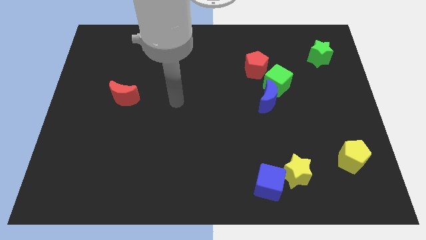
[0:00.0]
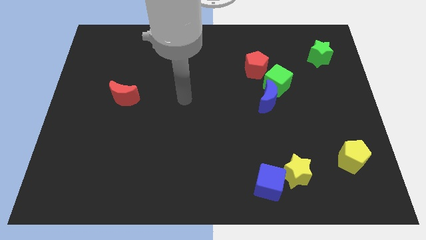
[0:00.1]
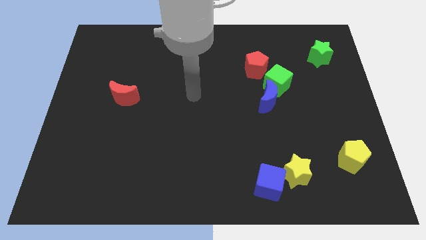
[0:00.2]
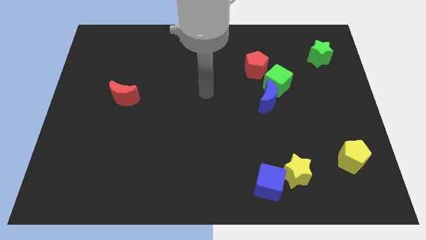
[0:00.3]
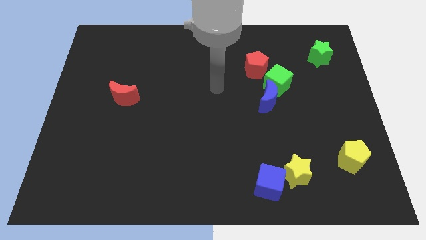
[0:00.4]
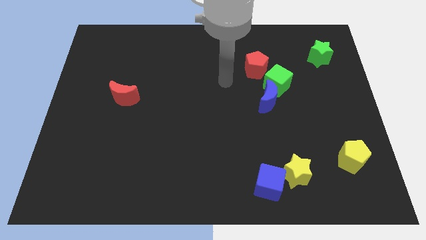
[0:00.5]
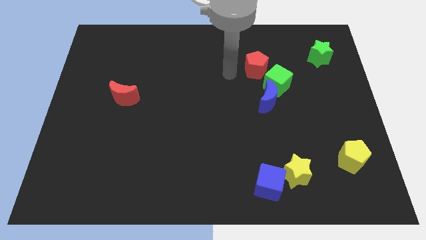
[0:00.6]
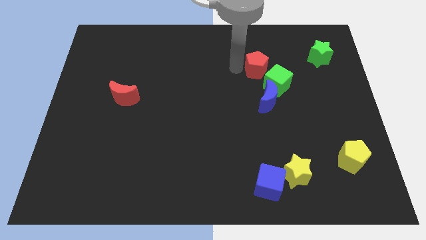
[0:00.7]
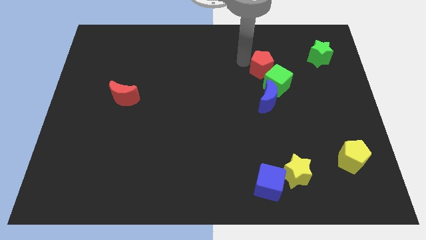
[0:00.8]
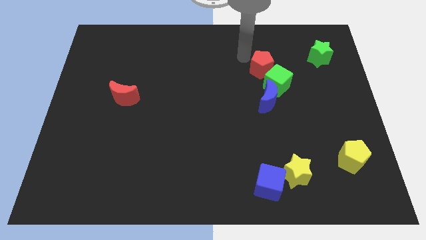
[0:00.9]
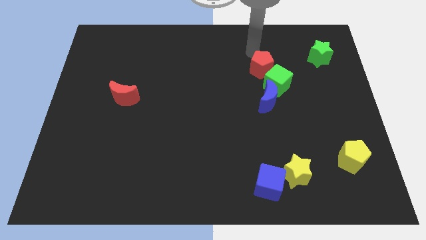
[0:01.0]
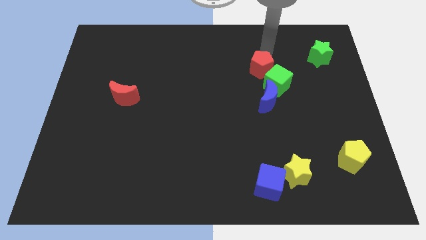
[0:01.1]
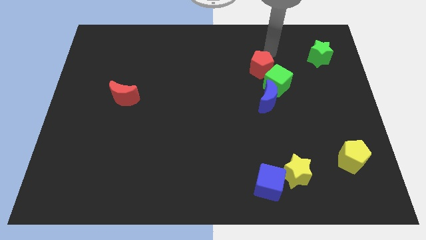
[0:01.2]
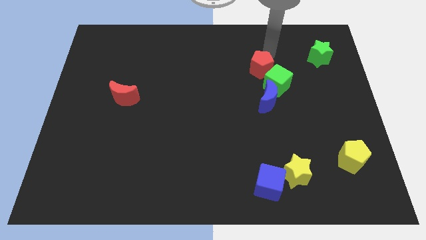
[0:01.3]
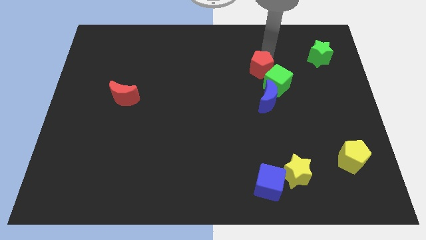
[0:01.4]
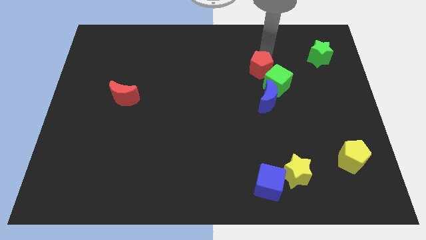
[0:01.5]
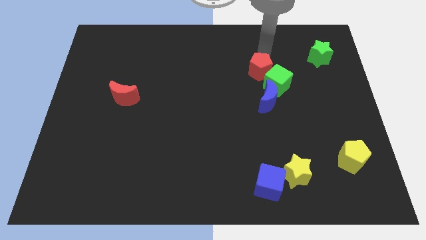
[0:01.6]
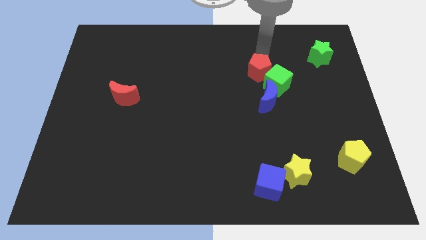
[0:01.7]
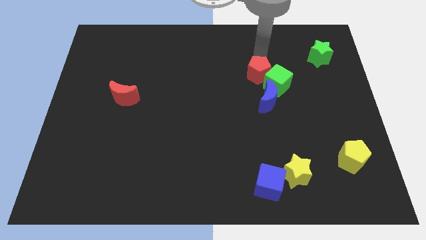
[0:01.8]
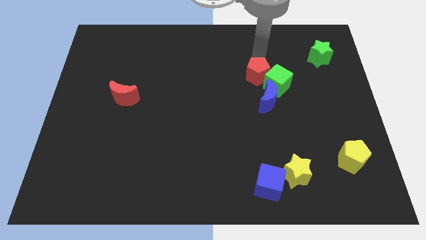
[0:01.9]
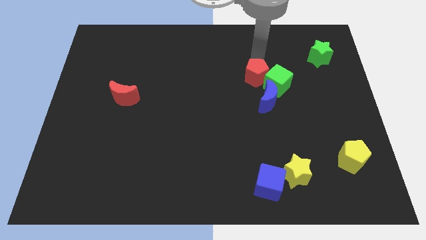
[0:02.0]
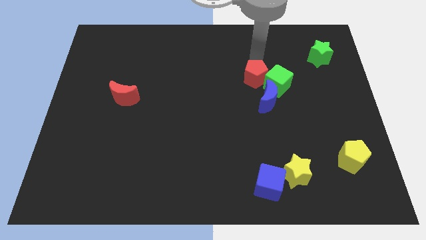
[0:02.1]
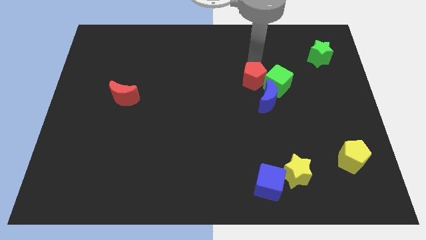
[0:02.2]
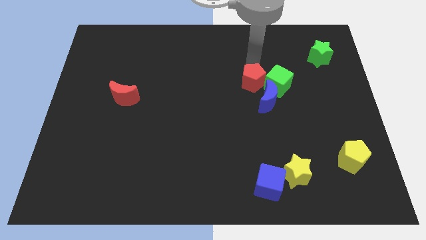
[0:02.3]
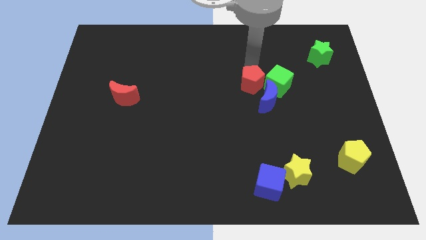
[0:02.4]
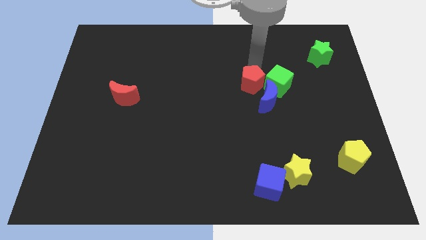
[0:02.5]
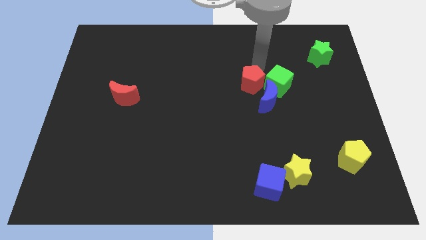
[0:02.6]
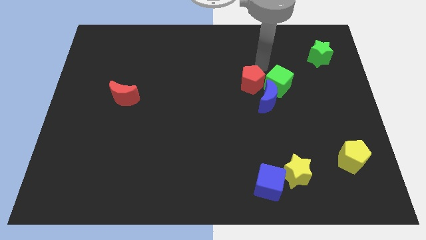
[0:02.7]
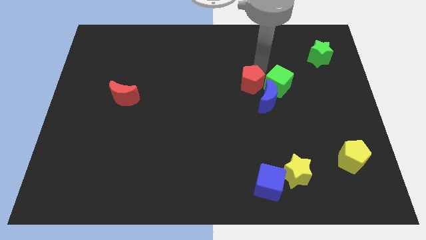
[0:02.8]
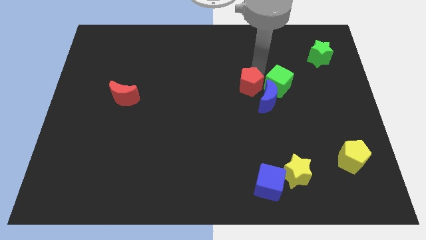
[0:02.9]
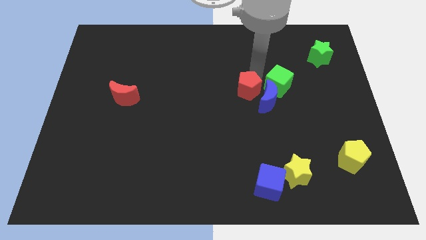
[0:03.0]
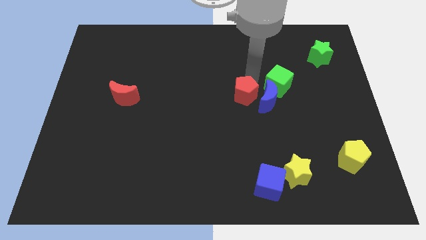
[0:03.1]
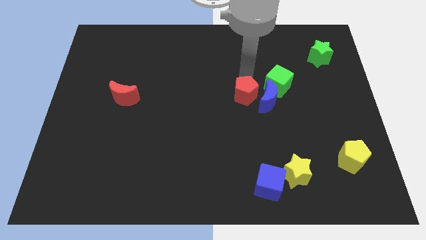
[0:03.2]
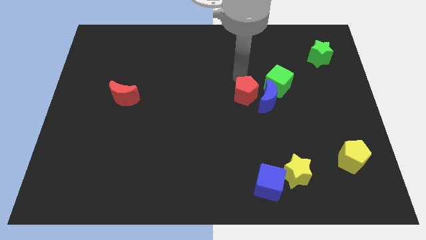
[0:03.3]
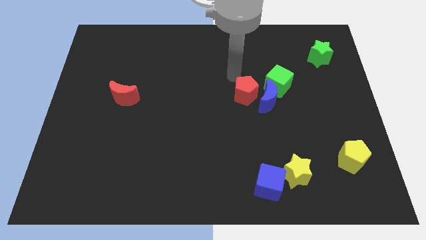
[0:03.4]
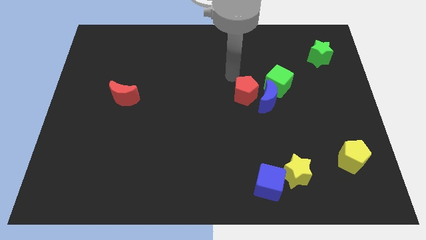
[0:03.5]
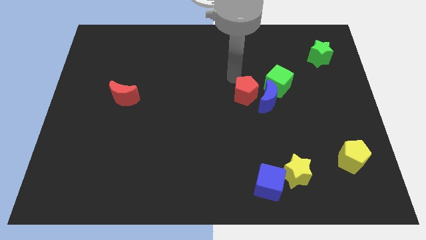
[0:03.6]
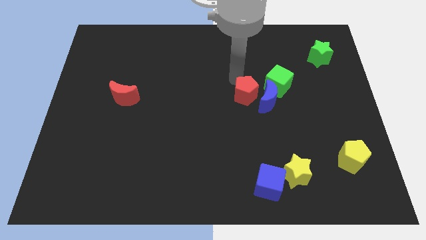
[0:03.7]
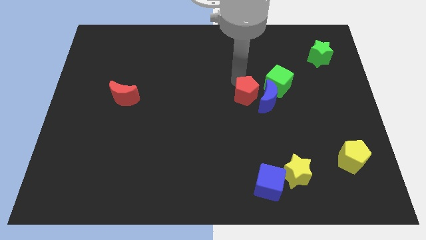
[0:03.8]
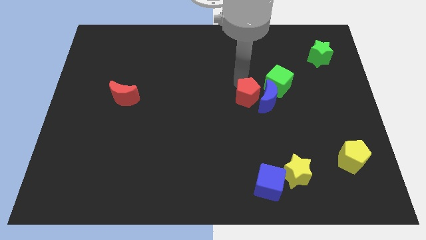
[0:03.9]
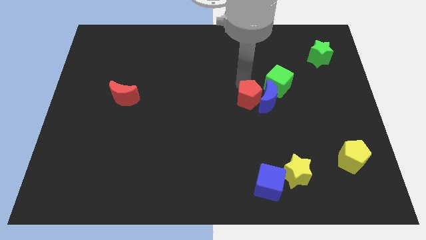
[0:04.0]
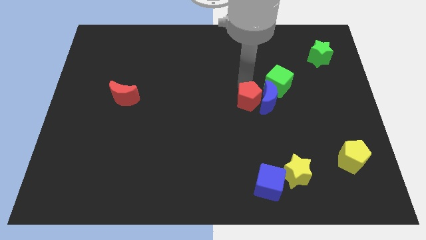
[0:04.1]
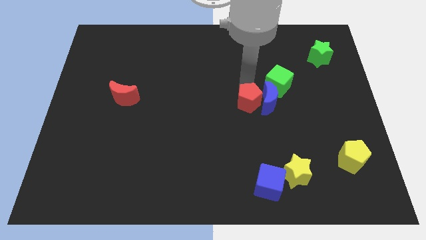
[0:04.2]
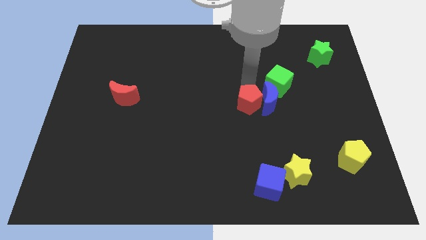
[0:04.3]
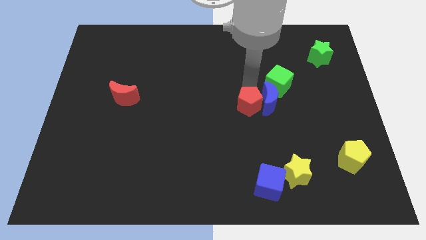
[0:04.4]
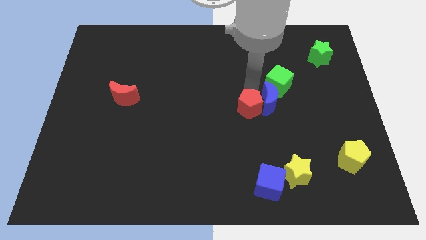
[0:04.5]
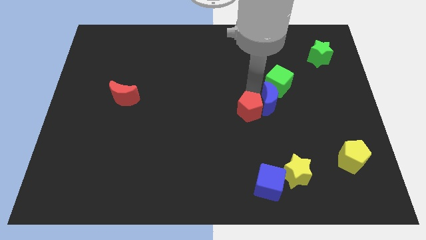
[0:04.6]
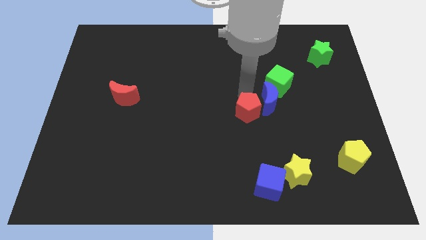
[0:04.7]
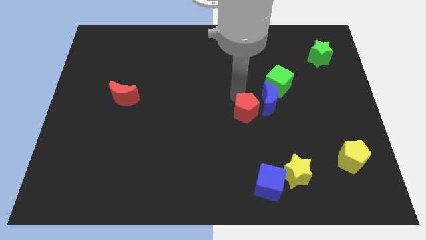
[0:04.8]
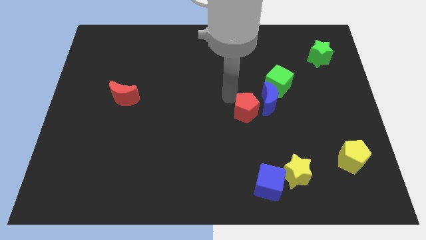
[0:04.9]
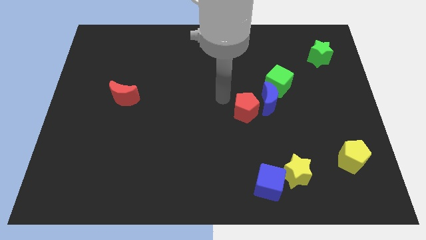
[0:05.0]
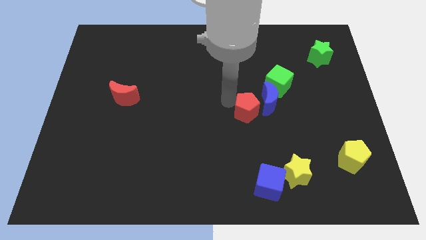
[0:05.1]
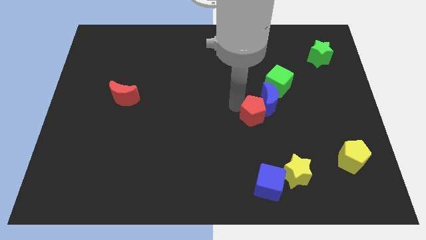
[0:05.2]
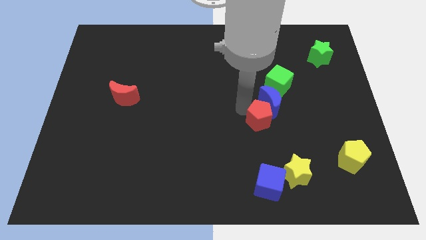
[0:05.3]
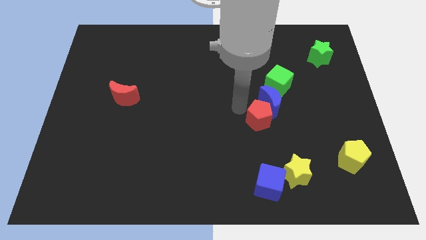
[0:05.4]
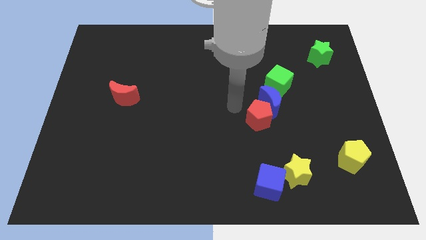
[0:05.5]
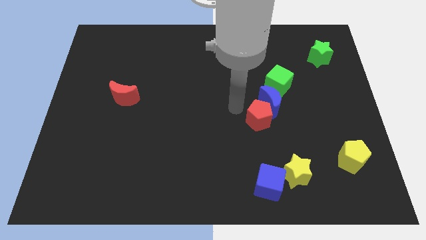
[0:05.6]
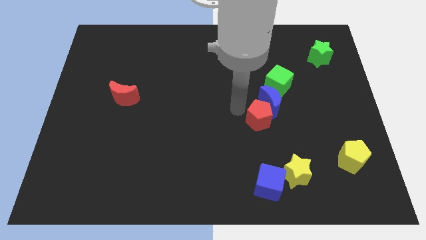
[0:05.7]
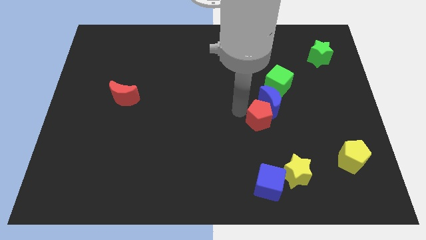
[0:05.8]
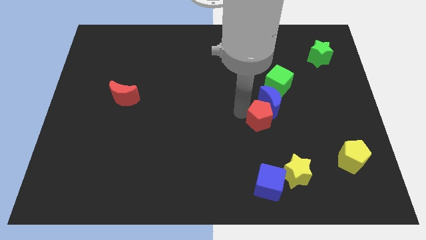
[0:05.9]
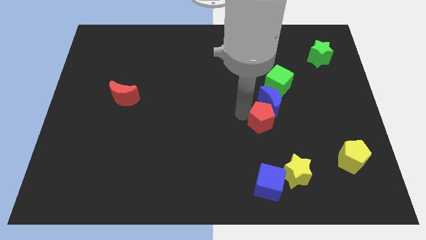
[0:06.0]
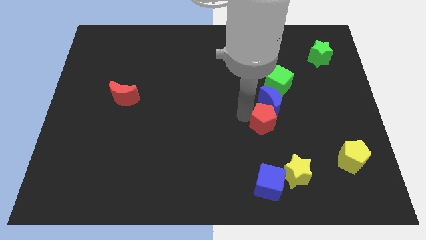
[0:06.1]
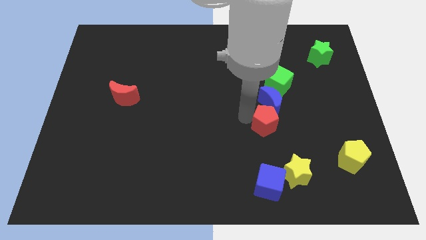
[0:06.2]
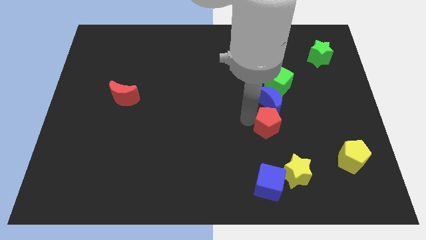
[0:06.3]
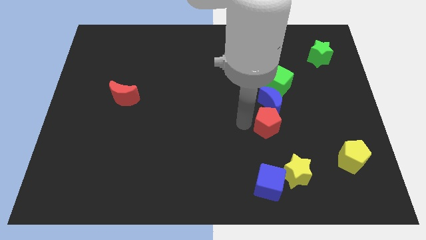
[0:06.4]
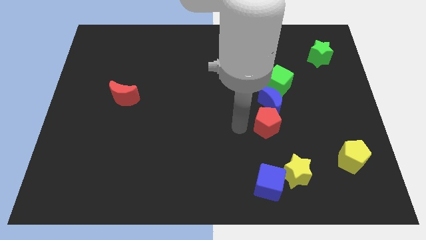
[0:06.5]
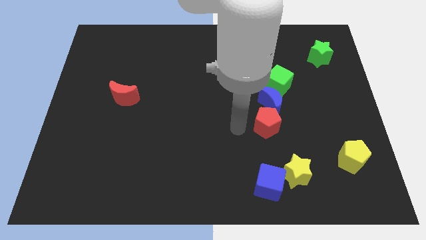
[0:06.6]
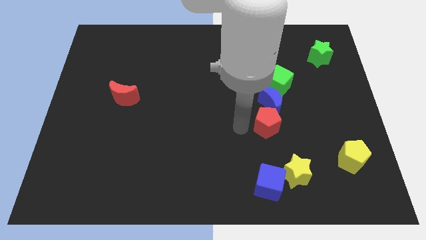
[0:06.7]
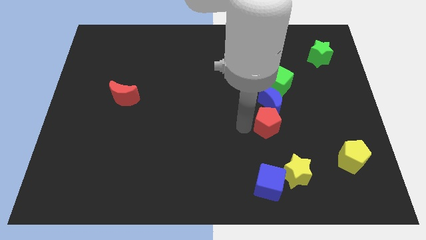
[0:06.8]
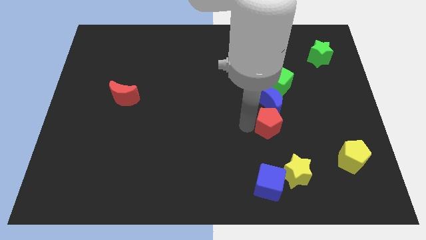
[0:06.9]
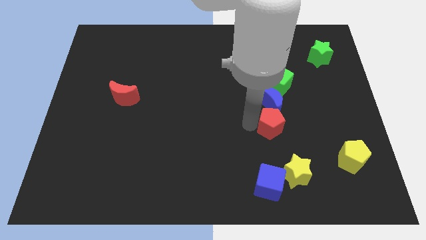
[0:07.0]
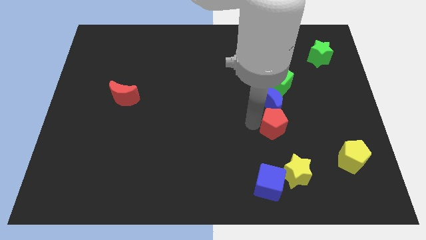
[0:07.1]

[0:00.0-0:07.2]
put the red pentagon diagonally down and to the right of the blue moon
